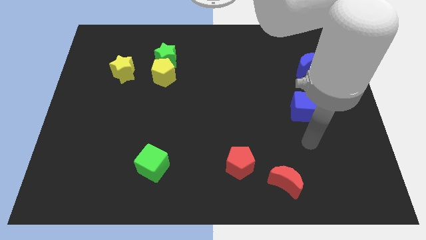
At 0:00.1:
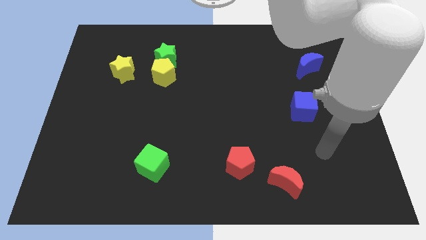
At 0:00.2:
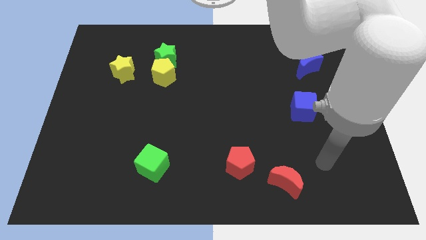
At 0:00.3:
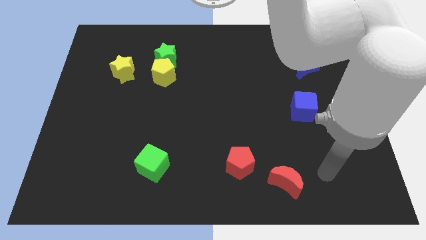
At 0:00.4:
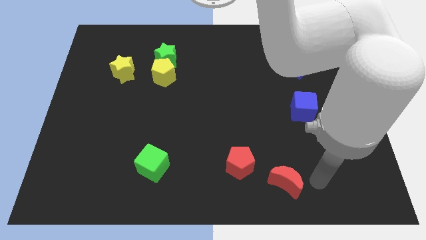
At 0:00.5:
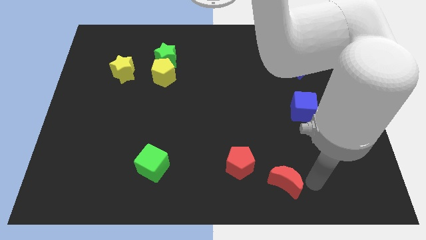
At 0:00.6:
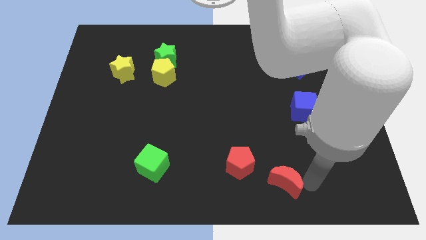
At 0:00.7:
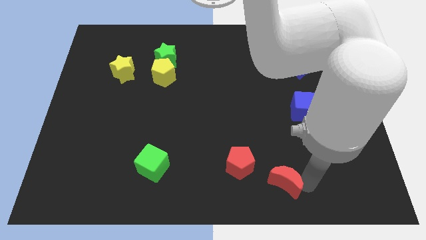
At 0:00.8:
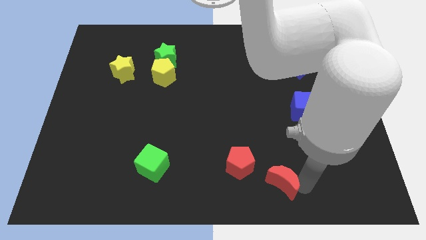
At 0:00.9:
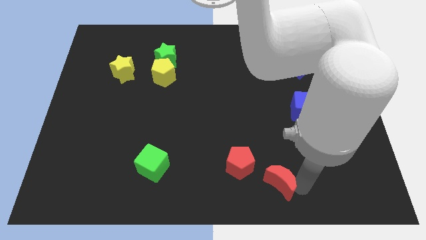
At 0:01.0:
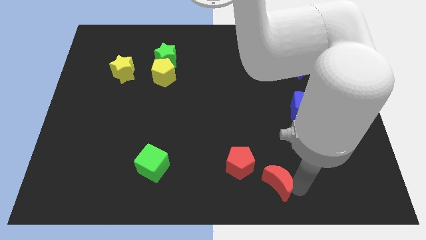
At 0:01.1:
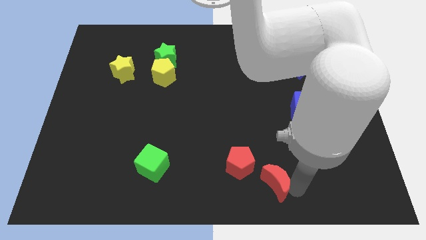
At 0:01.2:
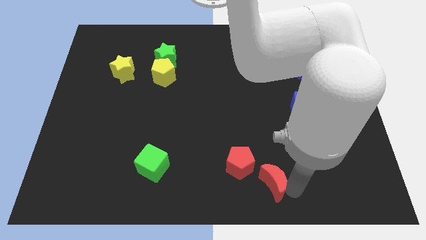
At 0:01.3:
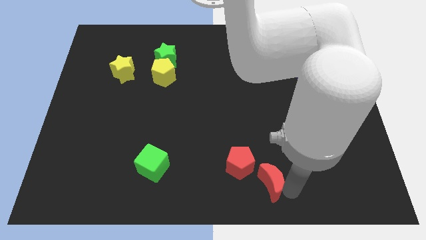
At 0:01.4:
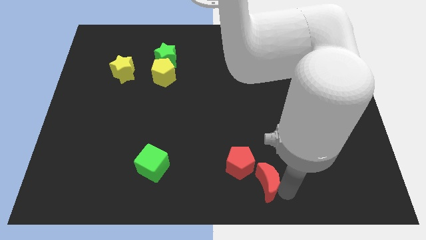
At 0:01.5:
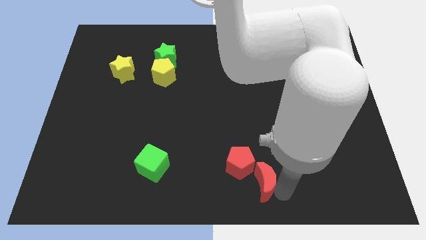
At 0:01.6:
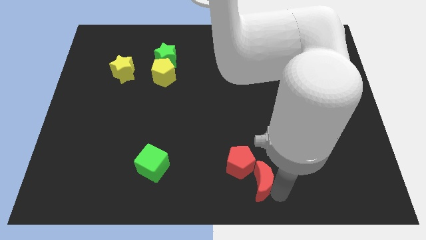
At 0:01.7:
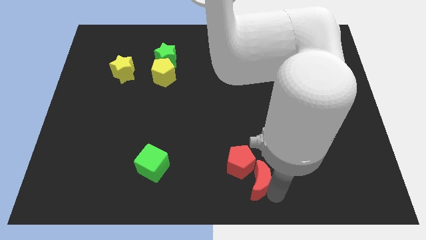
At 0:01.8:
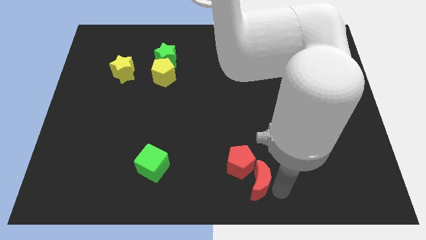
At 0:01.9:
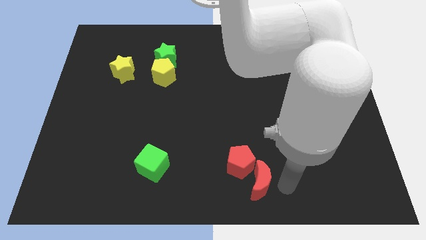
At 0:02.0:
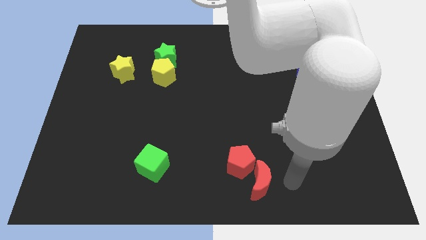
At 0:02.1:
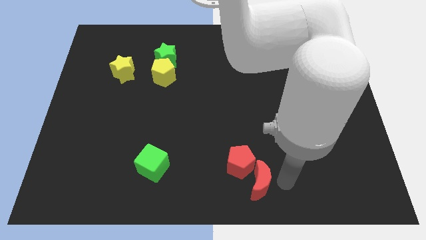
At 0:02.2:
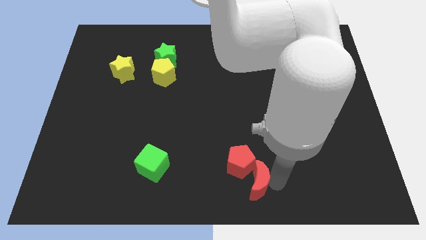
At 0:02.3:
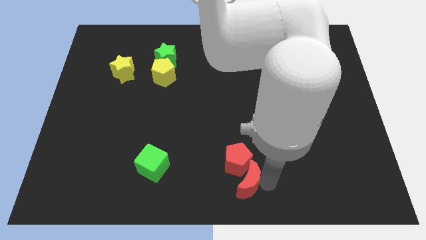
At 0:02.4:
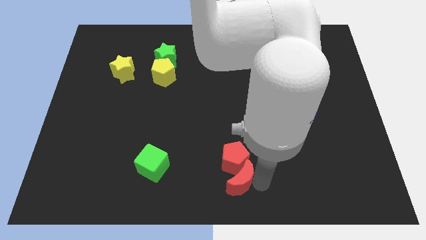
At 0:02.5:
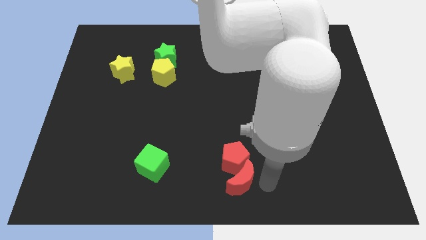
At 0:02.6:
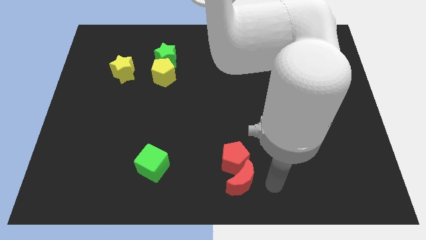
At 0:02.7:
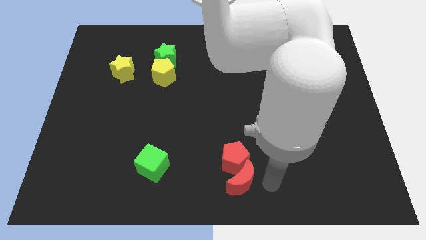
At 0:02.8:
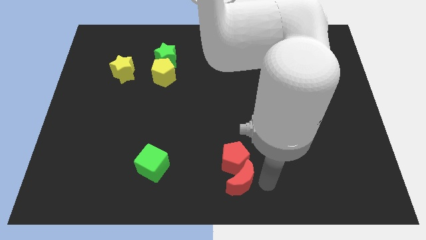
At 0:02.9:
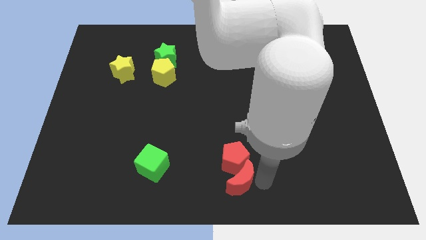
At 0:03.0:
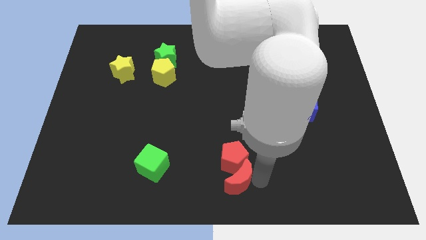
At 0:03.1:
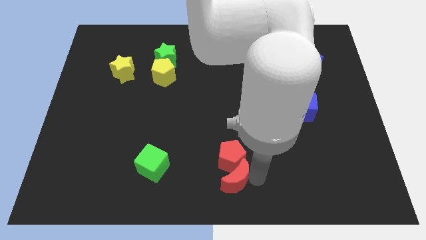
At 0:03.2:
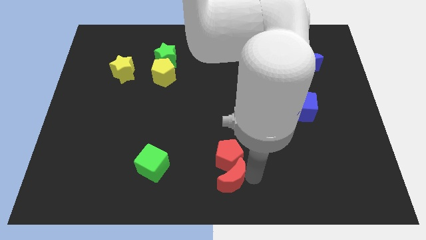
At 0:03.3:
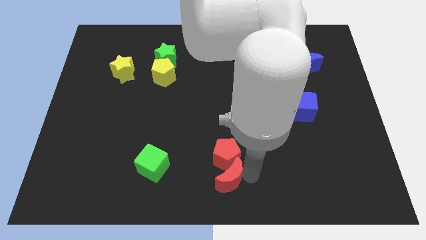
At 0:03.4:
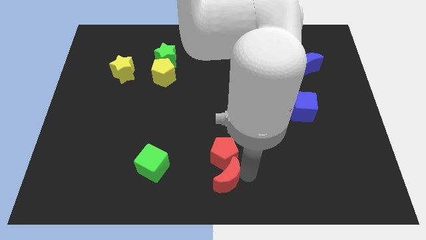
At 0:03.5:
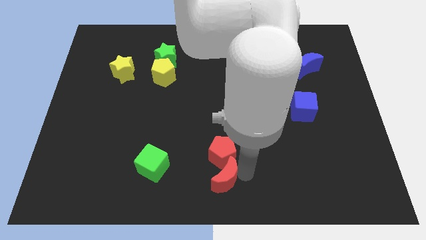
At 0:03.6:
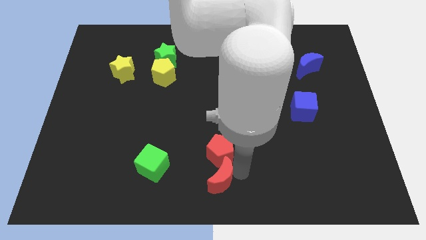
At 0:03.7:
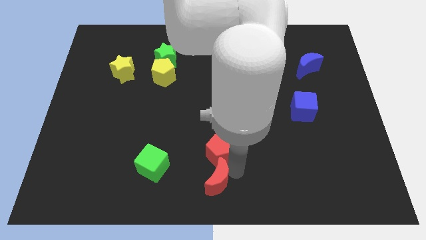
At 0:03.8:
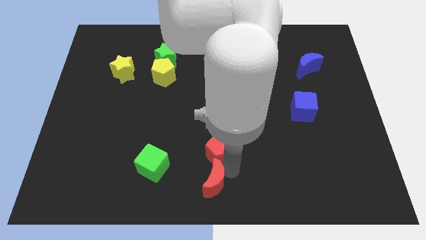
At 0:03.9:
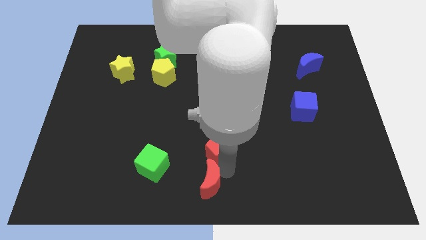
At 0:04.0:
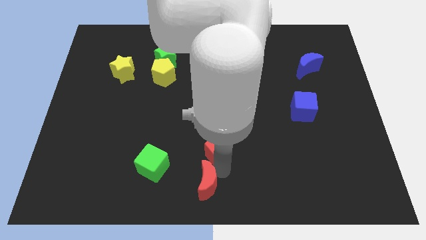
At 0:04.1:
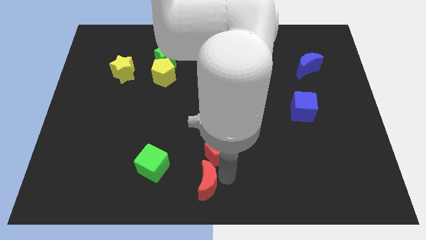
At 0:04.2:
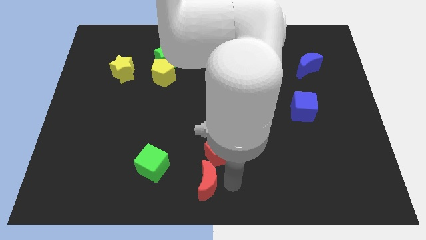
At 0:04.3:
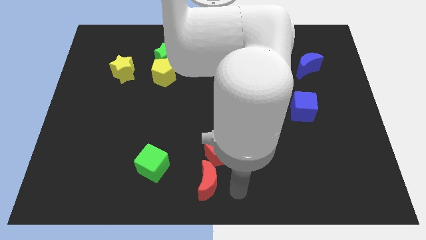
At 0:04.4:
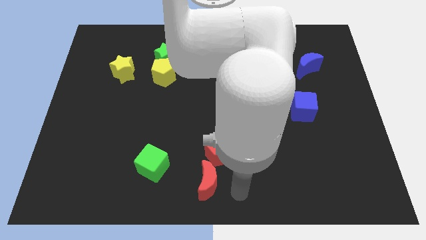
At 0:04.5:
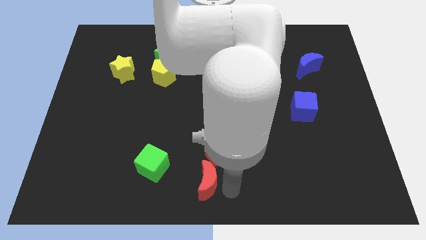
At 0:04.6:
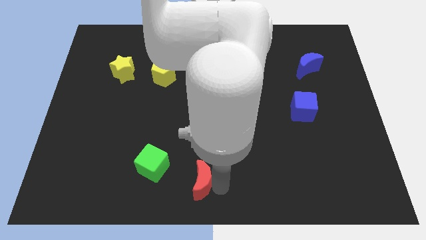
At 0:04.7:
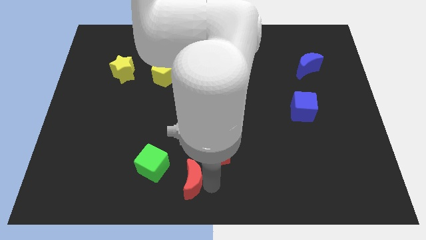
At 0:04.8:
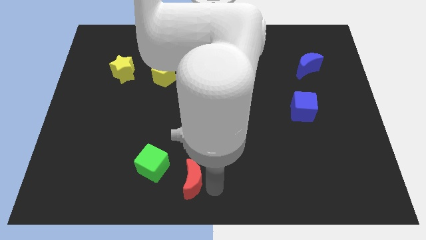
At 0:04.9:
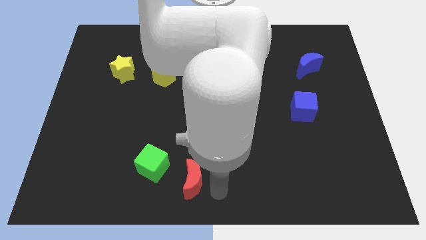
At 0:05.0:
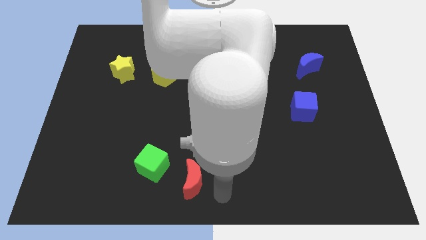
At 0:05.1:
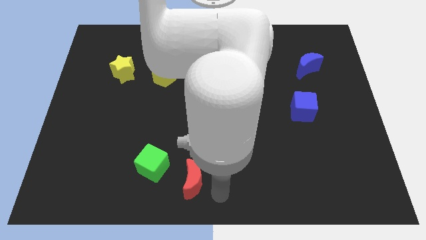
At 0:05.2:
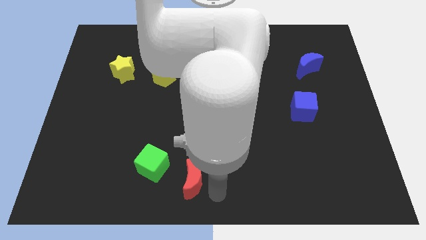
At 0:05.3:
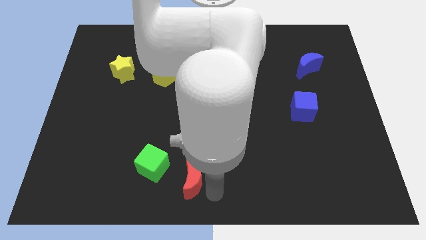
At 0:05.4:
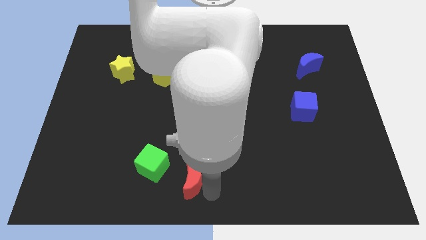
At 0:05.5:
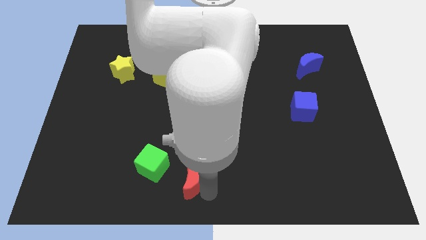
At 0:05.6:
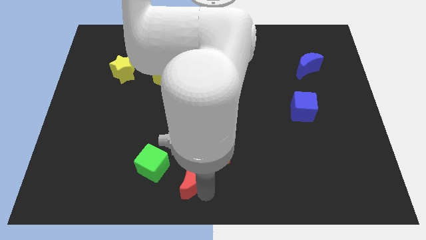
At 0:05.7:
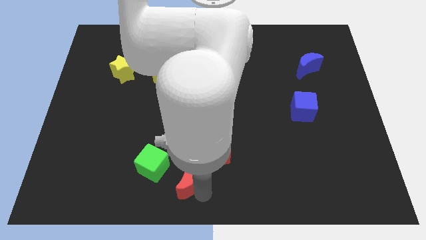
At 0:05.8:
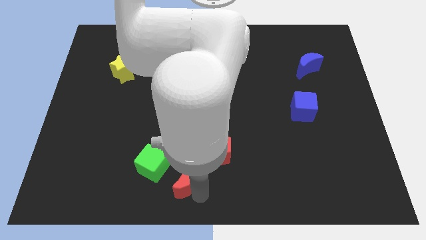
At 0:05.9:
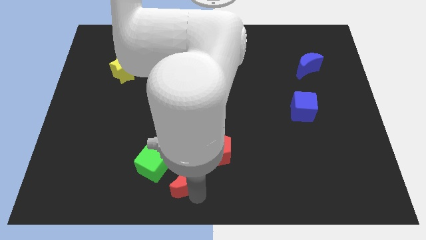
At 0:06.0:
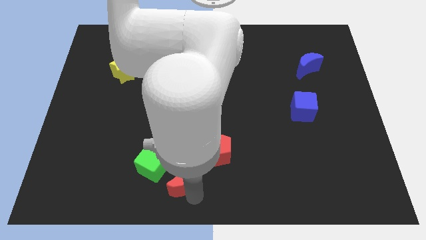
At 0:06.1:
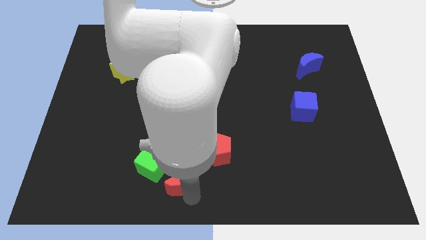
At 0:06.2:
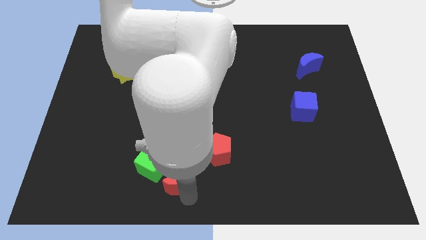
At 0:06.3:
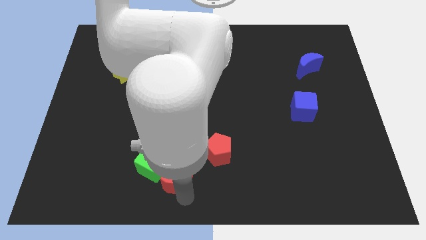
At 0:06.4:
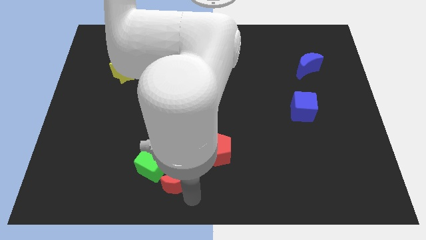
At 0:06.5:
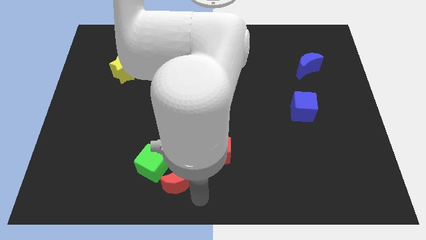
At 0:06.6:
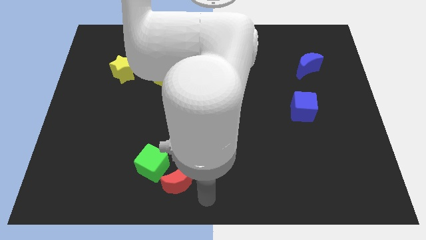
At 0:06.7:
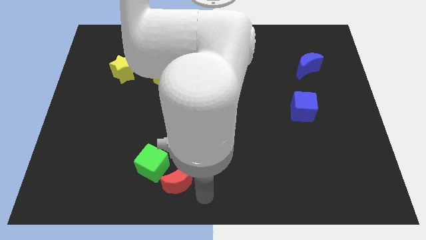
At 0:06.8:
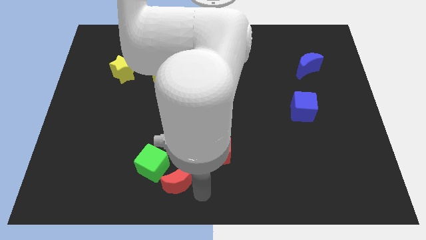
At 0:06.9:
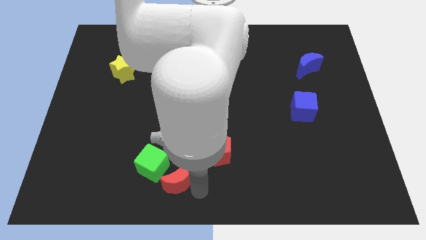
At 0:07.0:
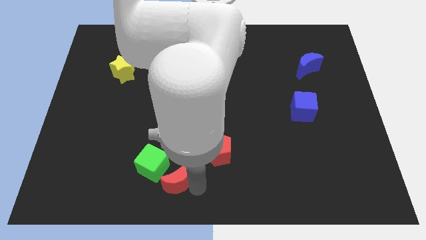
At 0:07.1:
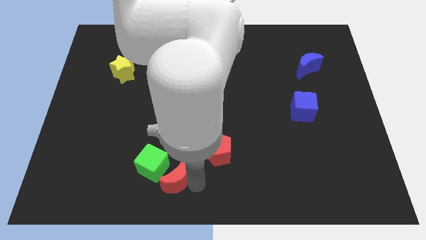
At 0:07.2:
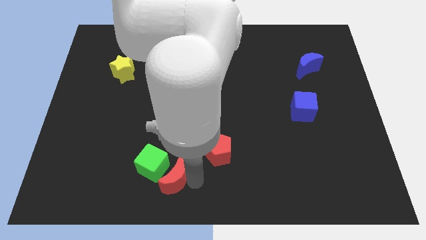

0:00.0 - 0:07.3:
slide the red moon next to the green cube
